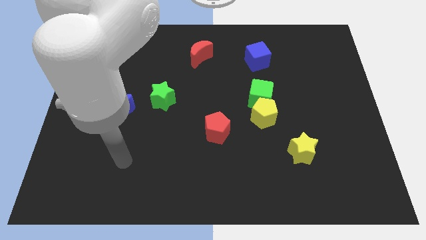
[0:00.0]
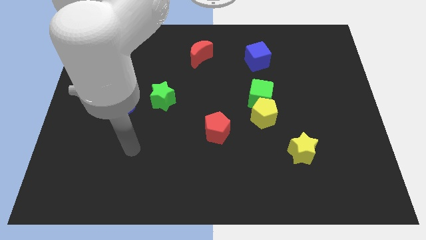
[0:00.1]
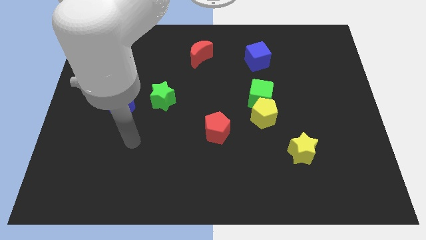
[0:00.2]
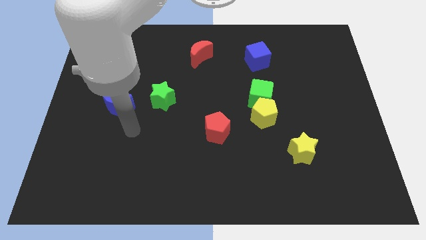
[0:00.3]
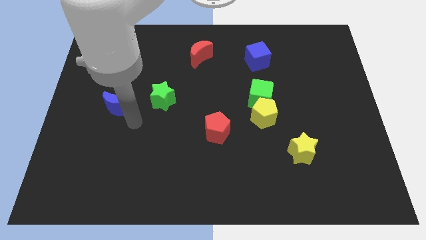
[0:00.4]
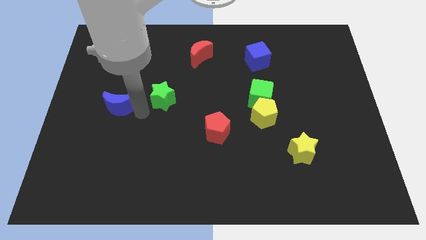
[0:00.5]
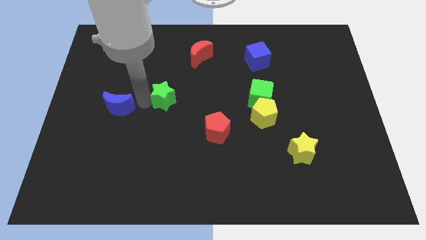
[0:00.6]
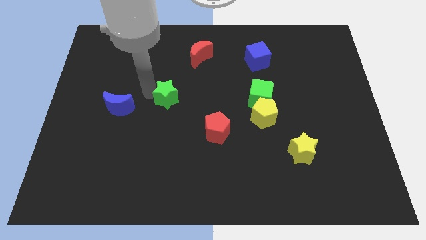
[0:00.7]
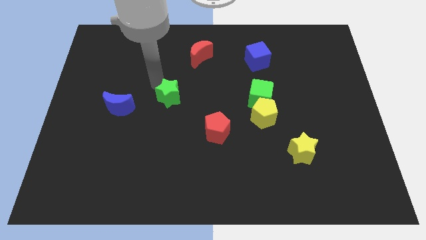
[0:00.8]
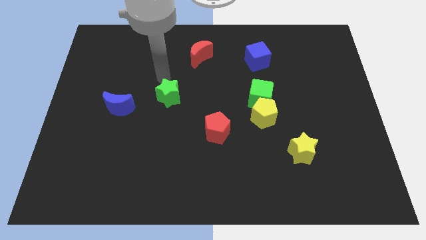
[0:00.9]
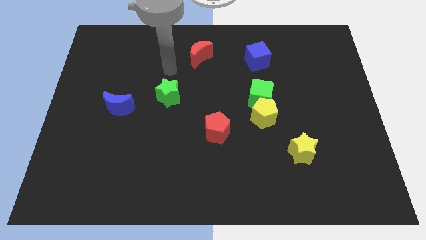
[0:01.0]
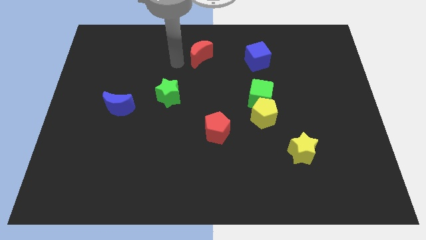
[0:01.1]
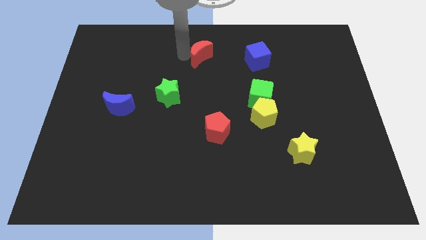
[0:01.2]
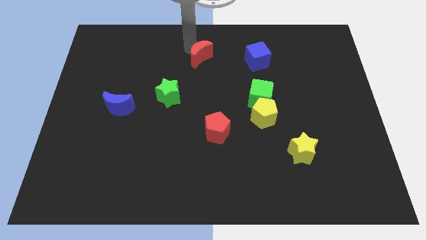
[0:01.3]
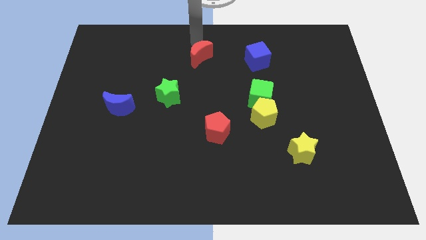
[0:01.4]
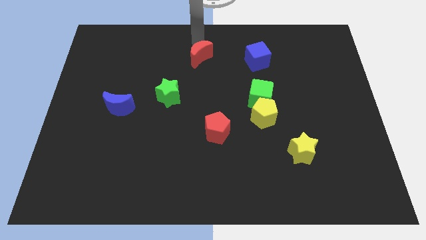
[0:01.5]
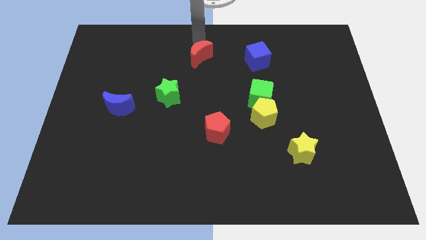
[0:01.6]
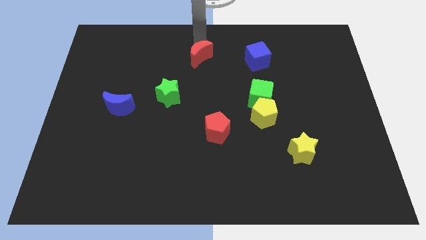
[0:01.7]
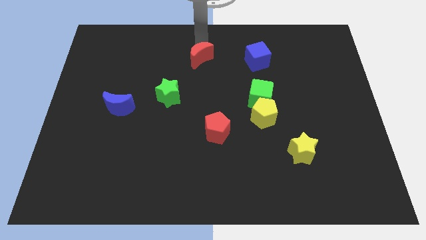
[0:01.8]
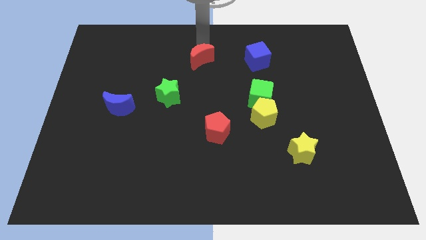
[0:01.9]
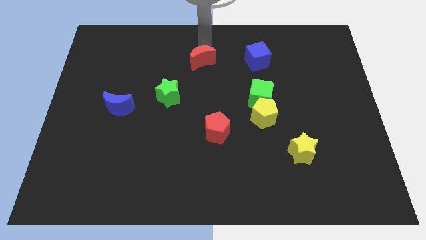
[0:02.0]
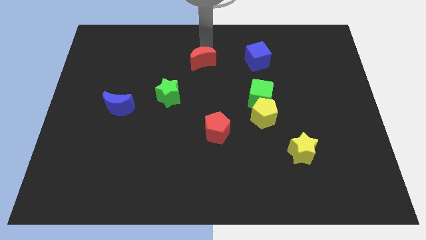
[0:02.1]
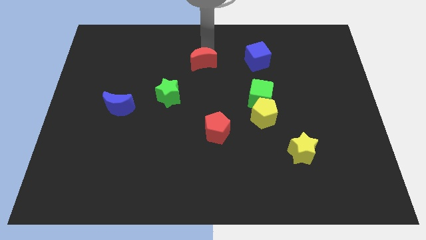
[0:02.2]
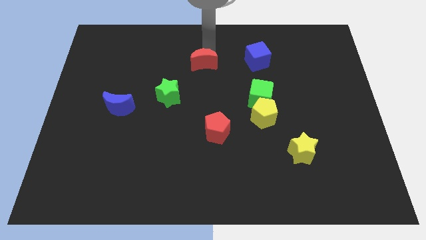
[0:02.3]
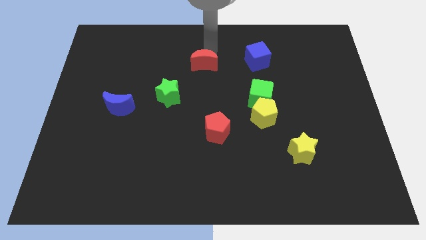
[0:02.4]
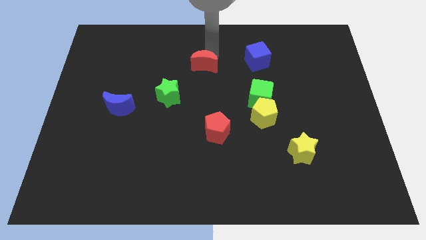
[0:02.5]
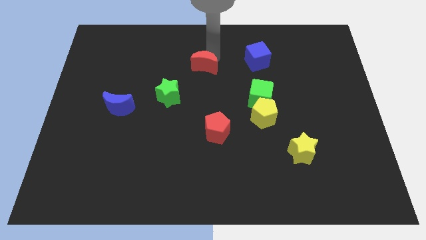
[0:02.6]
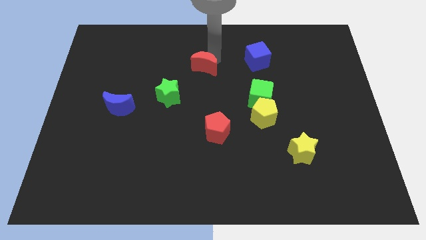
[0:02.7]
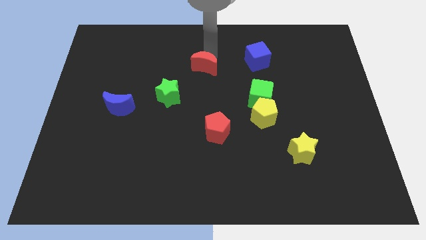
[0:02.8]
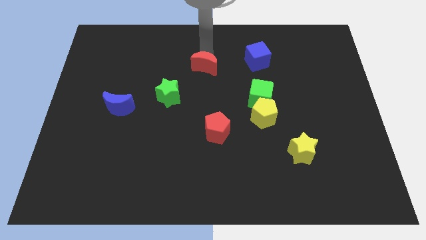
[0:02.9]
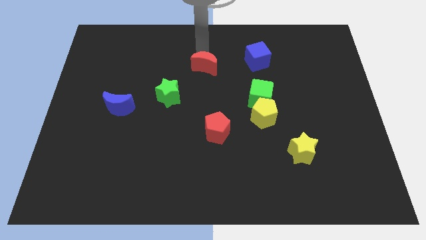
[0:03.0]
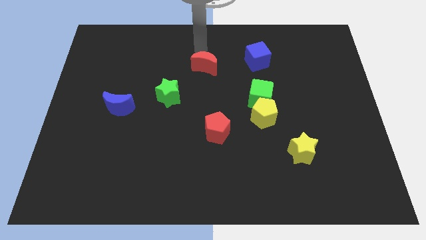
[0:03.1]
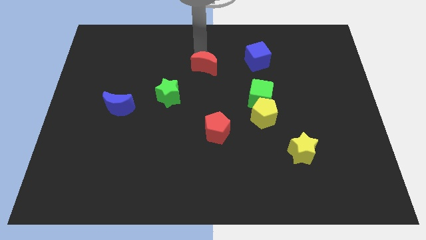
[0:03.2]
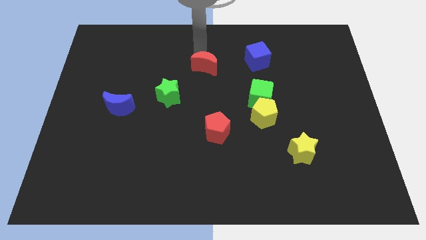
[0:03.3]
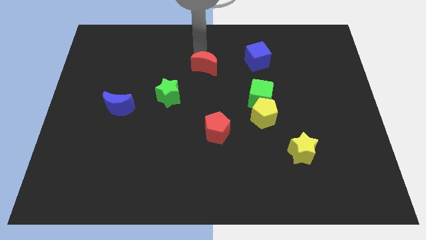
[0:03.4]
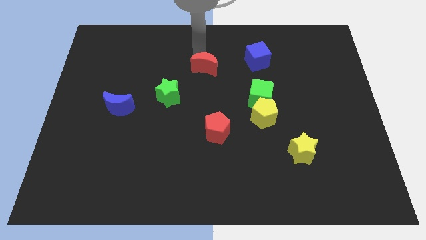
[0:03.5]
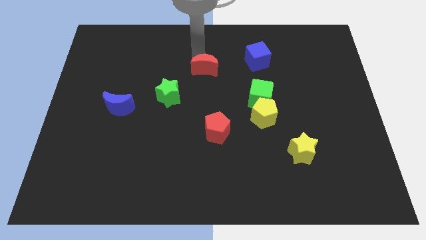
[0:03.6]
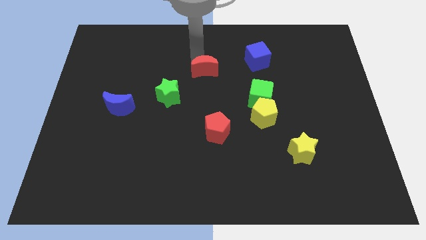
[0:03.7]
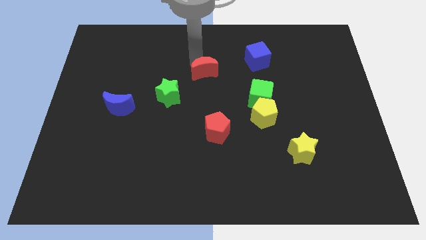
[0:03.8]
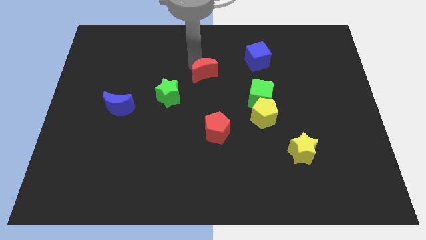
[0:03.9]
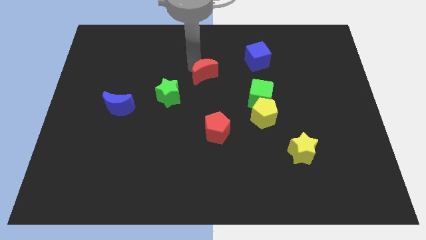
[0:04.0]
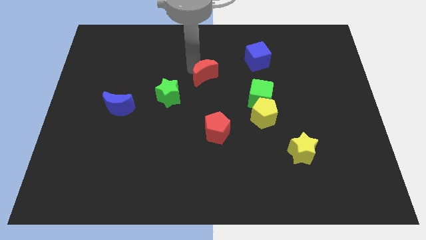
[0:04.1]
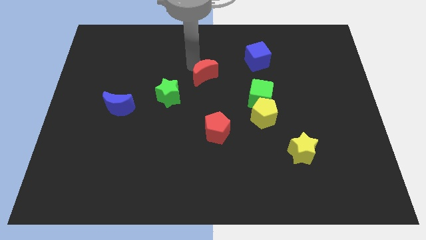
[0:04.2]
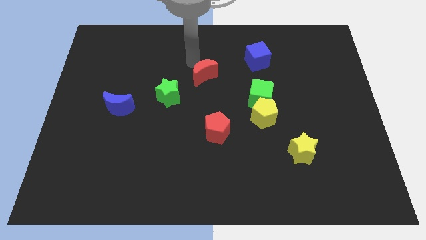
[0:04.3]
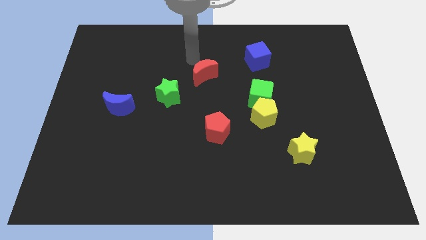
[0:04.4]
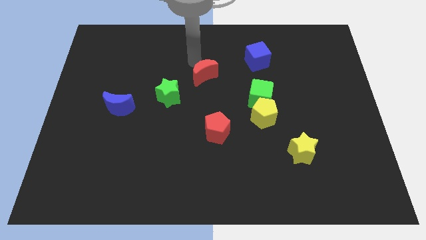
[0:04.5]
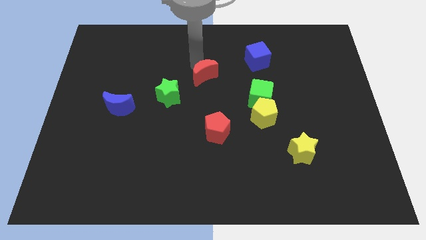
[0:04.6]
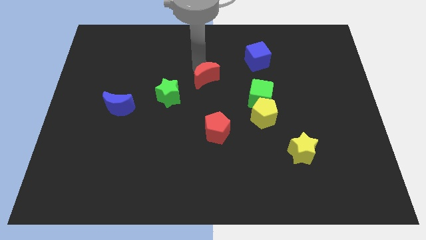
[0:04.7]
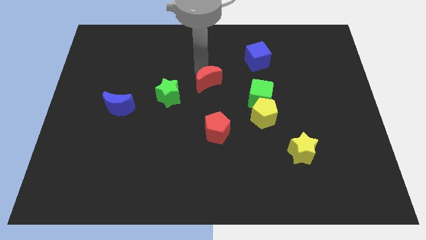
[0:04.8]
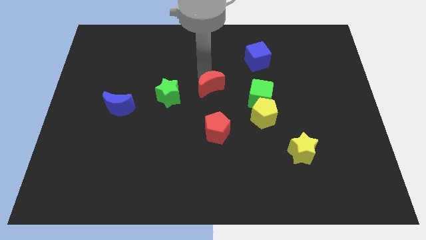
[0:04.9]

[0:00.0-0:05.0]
move the red moon to the left side of the green cube
